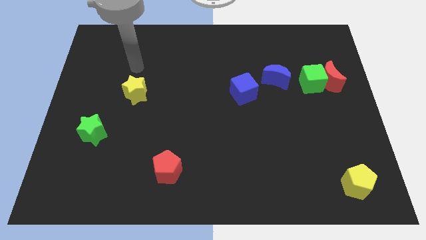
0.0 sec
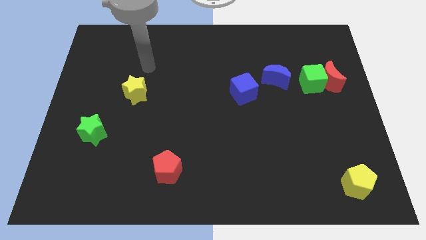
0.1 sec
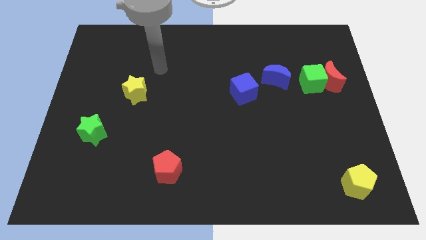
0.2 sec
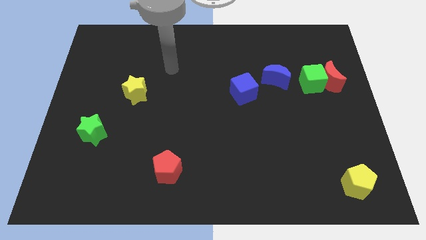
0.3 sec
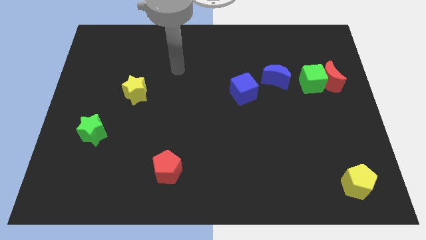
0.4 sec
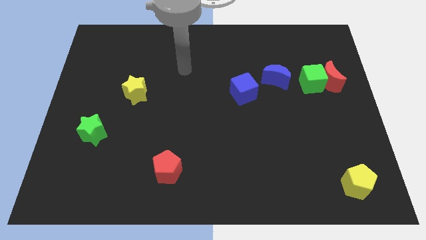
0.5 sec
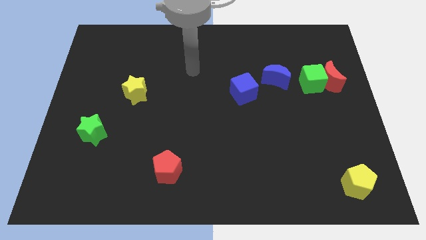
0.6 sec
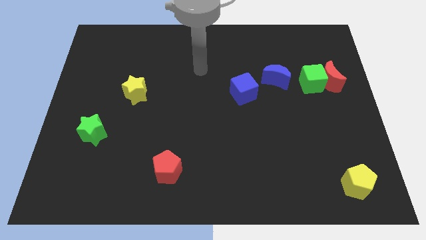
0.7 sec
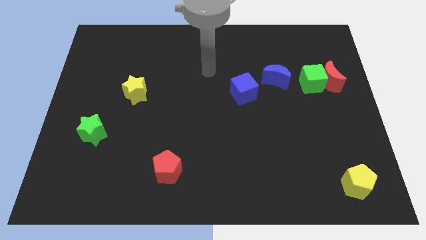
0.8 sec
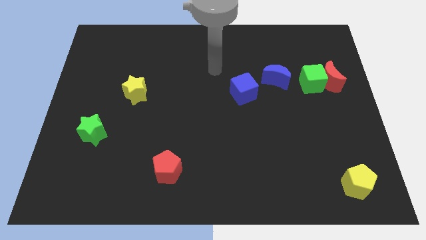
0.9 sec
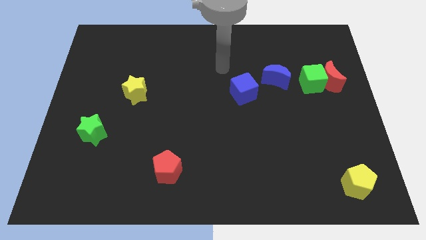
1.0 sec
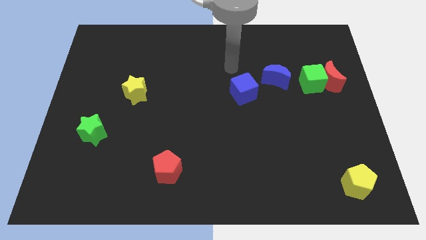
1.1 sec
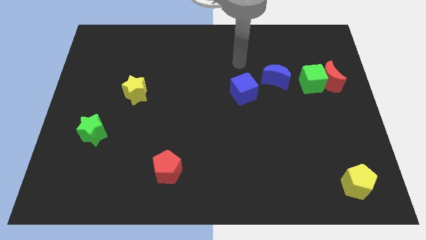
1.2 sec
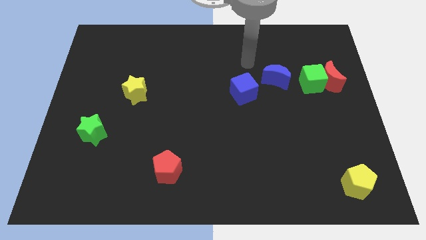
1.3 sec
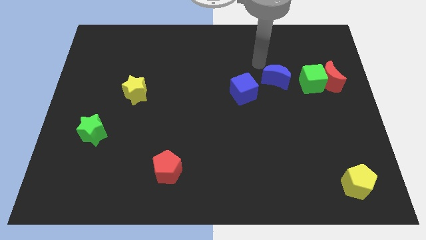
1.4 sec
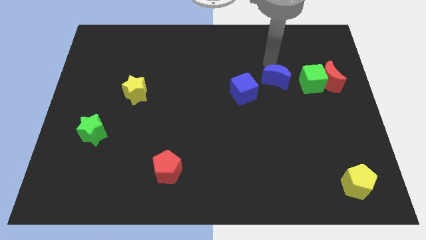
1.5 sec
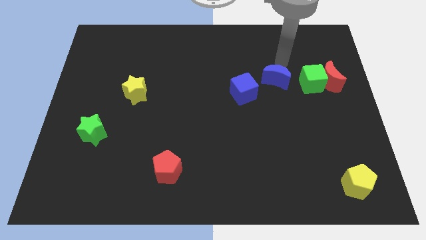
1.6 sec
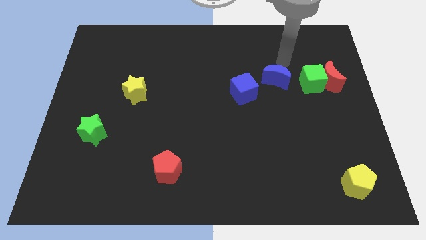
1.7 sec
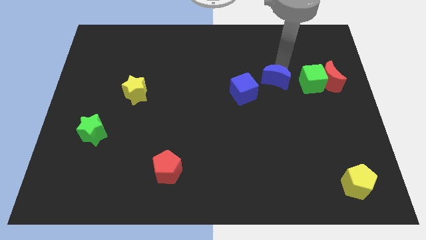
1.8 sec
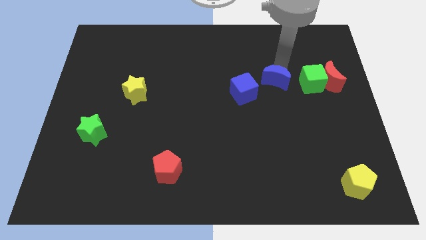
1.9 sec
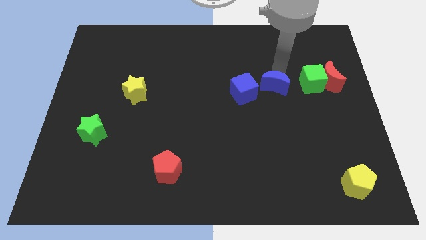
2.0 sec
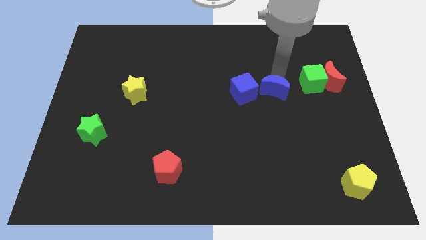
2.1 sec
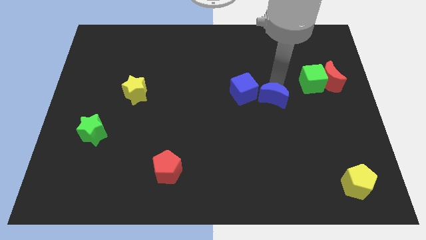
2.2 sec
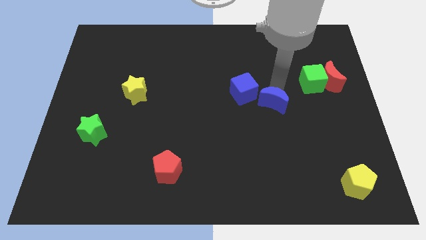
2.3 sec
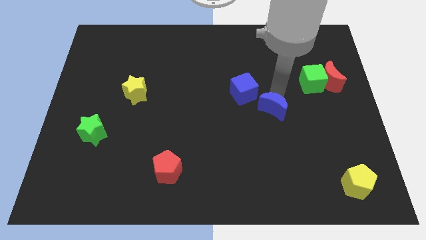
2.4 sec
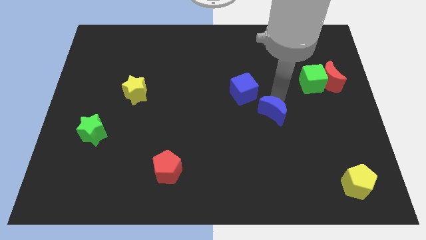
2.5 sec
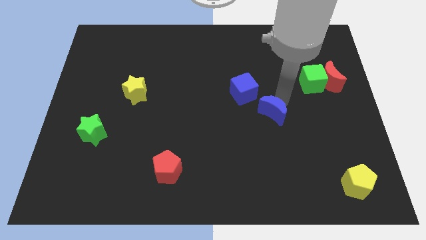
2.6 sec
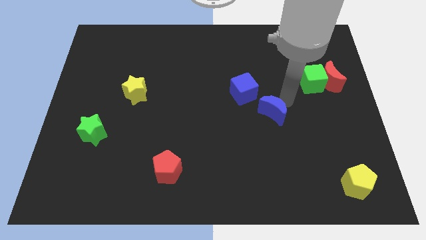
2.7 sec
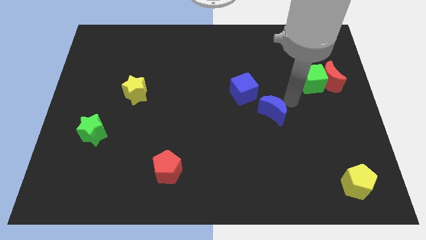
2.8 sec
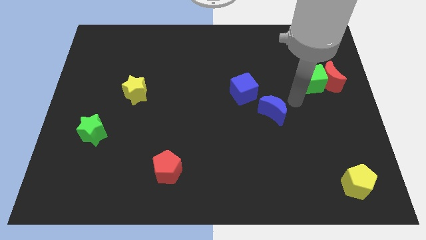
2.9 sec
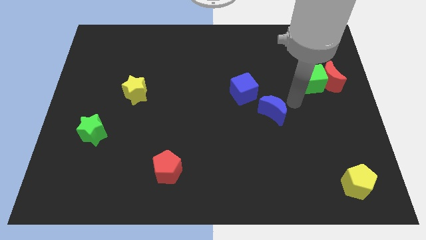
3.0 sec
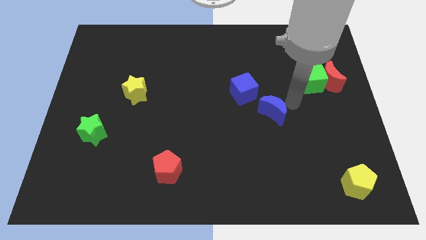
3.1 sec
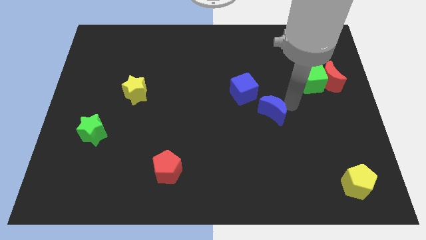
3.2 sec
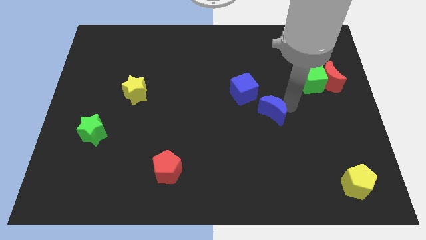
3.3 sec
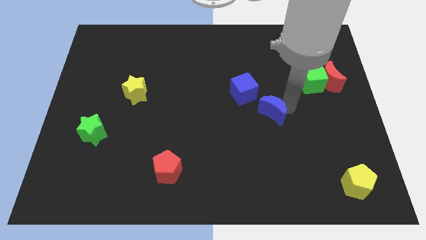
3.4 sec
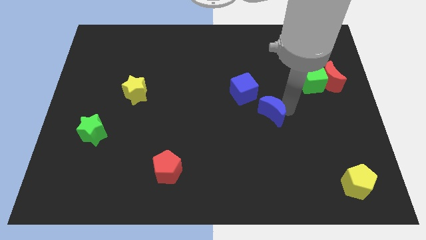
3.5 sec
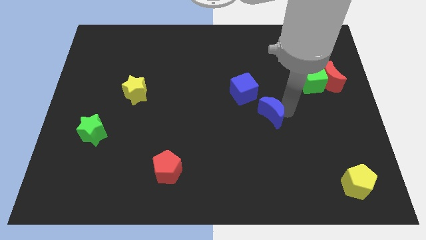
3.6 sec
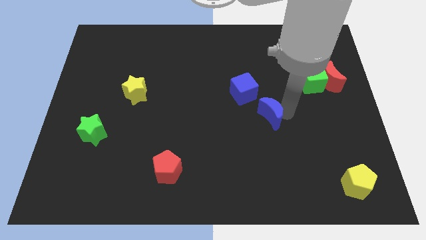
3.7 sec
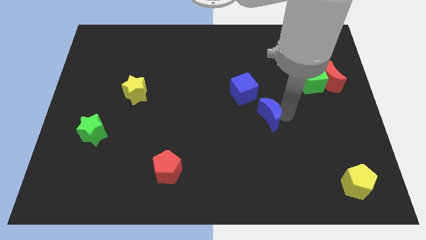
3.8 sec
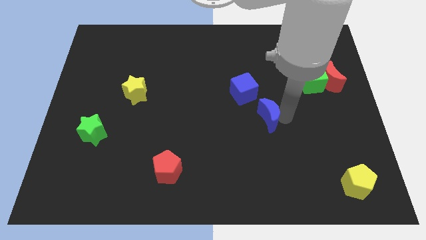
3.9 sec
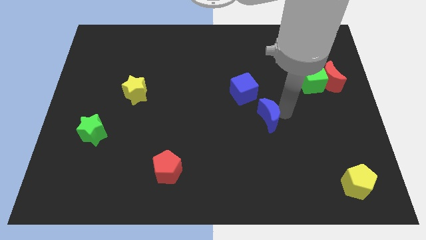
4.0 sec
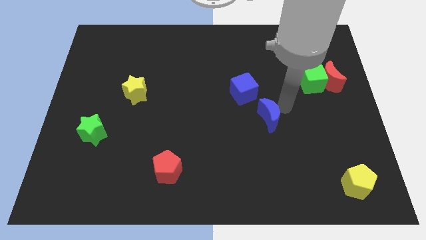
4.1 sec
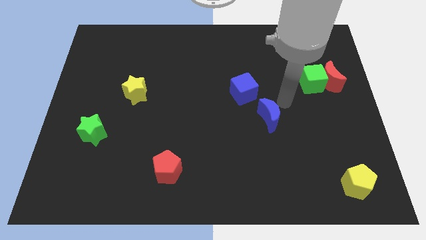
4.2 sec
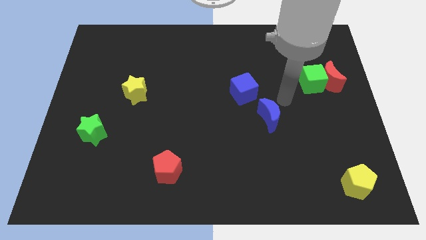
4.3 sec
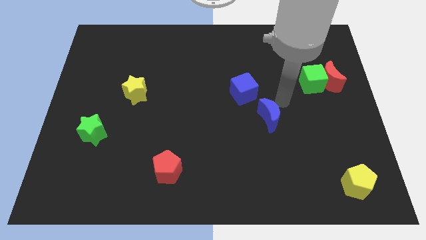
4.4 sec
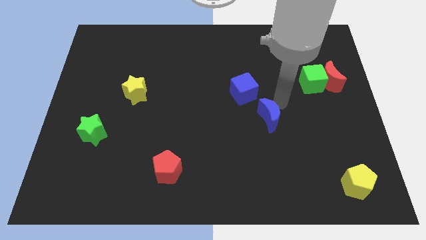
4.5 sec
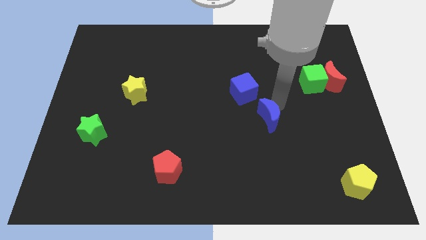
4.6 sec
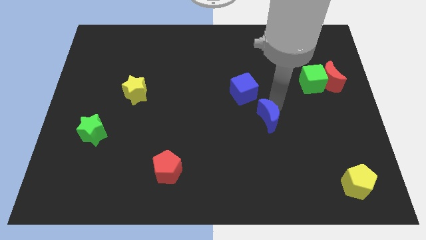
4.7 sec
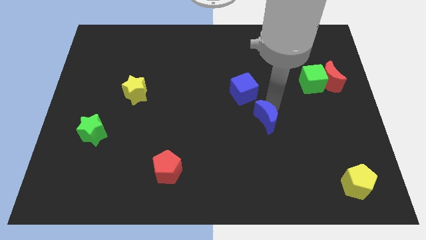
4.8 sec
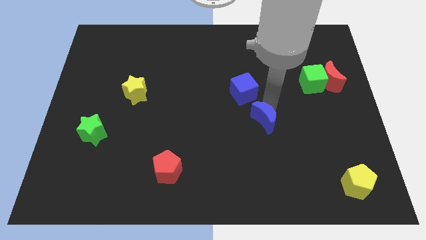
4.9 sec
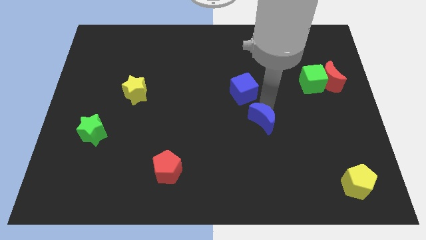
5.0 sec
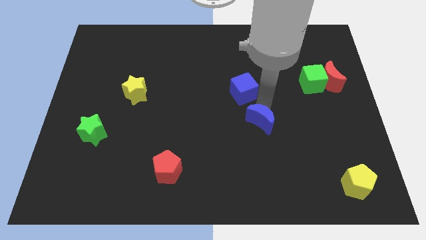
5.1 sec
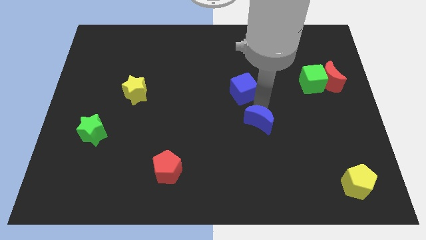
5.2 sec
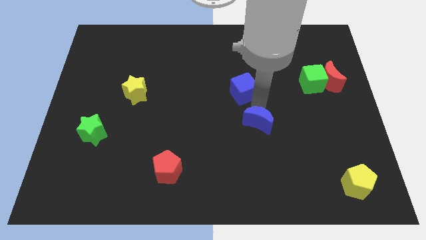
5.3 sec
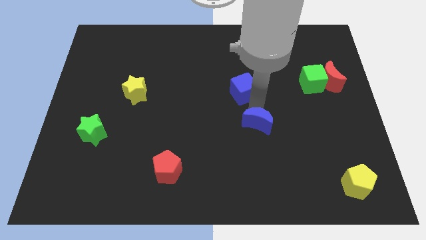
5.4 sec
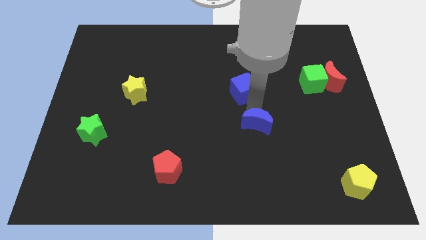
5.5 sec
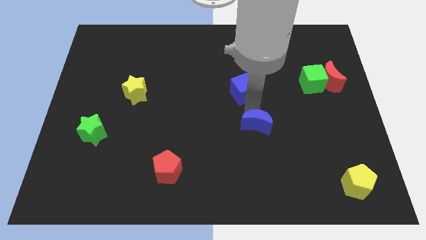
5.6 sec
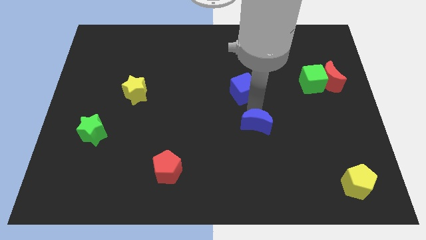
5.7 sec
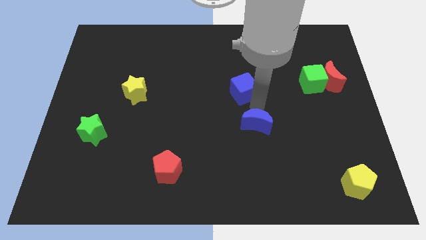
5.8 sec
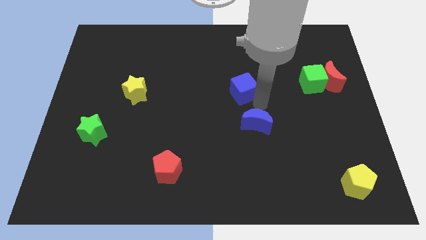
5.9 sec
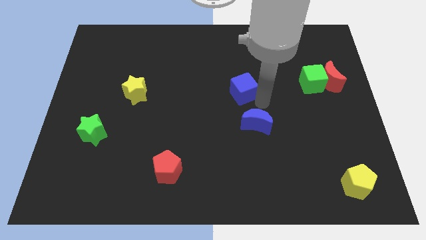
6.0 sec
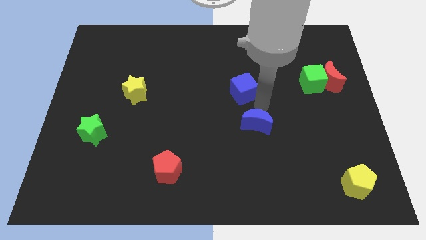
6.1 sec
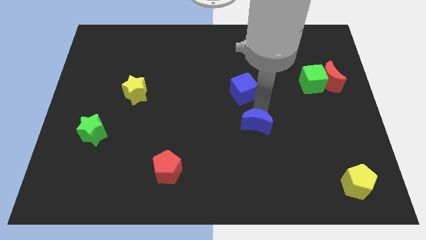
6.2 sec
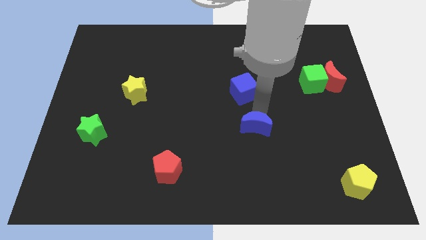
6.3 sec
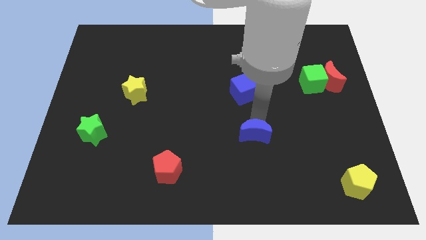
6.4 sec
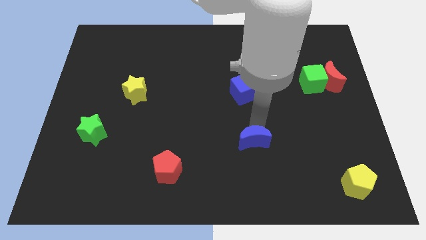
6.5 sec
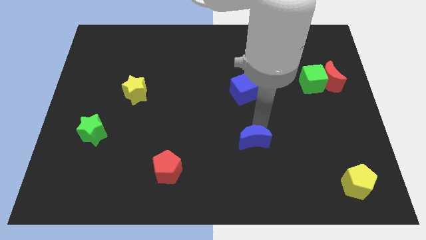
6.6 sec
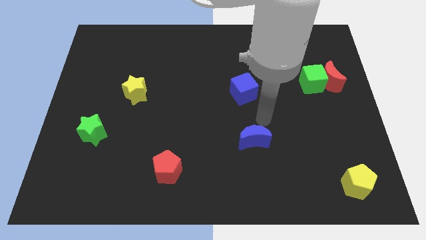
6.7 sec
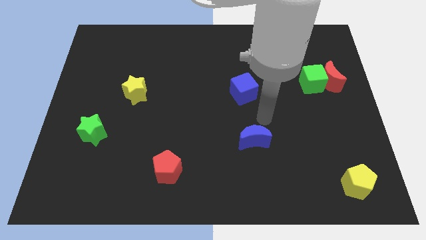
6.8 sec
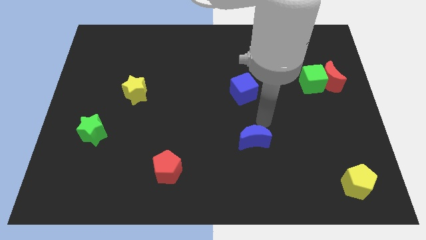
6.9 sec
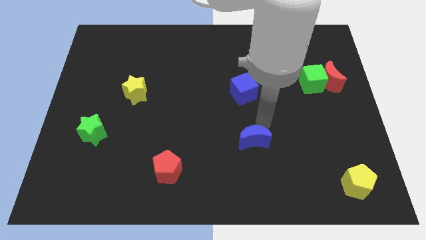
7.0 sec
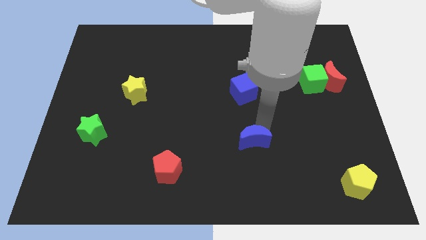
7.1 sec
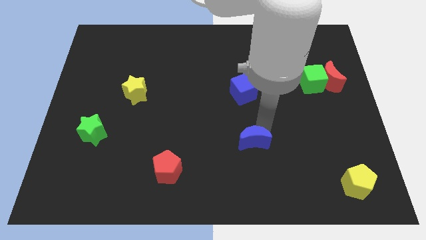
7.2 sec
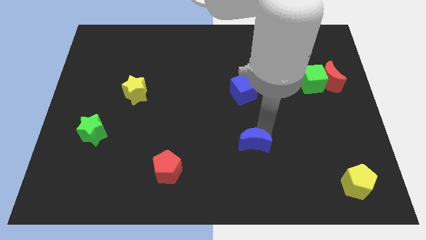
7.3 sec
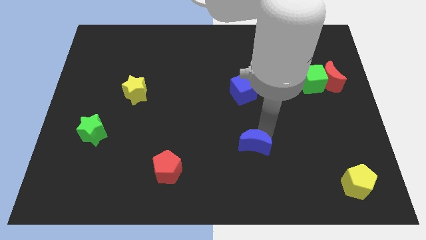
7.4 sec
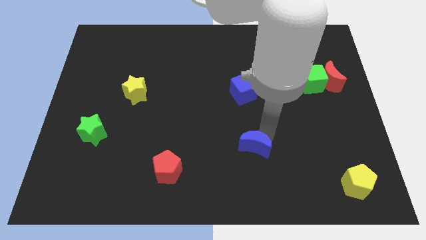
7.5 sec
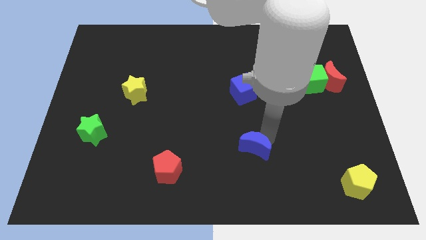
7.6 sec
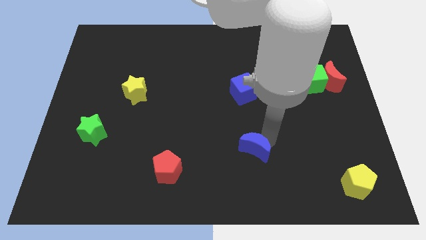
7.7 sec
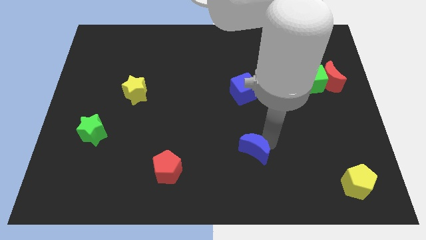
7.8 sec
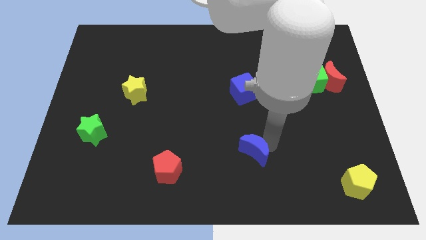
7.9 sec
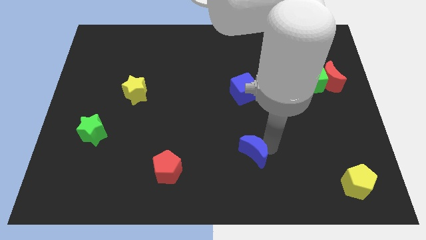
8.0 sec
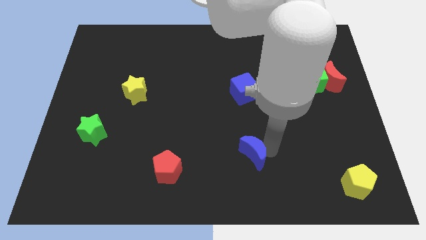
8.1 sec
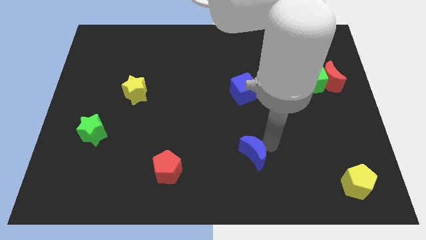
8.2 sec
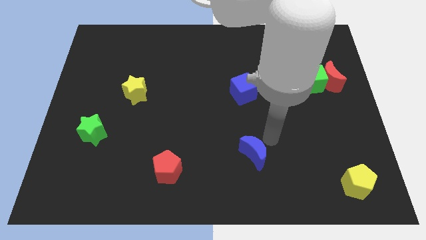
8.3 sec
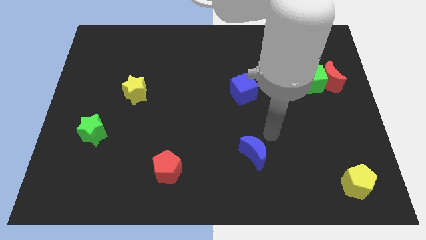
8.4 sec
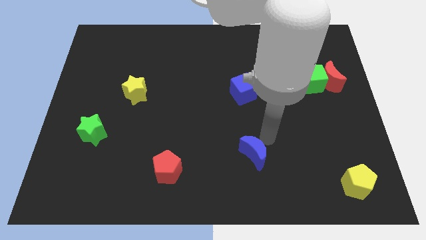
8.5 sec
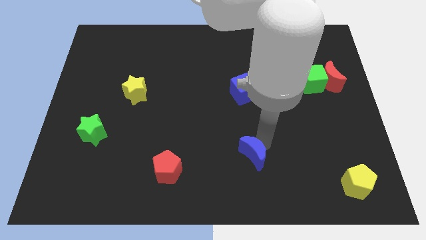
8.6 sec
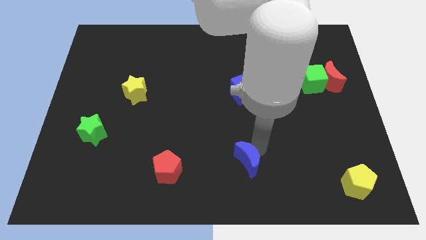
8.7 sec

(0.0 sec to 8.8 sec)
slide the blue moon to the bottom
